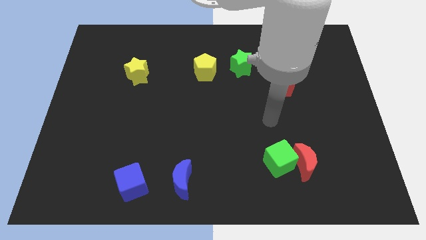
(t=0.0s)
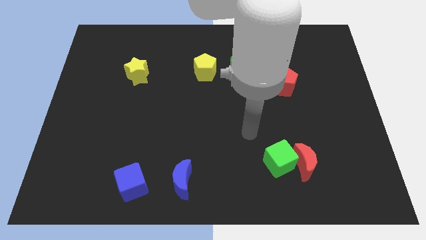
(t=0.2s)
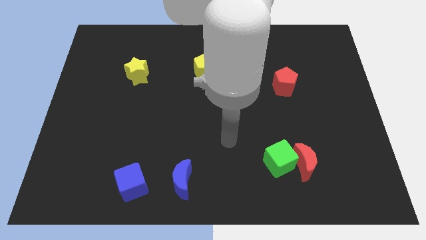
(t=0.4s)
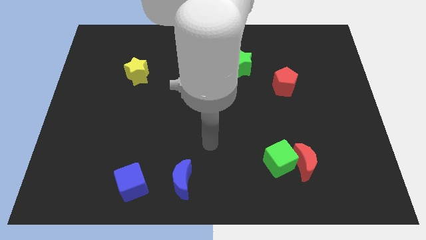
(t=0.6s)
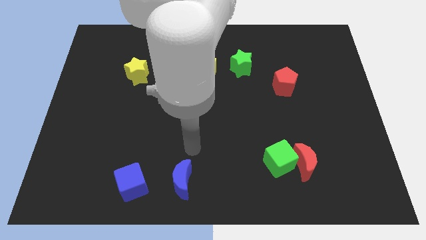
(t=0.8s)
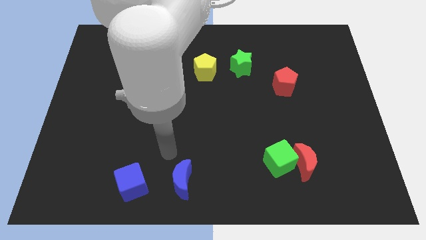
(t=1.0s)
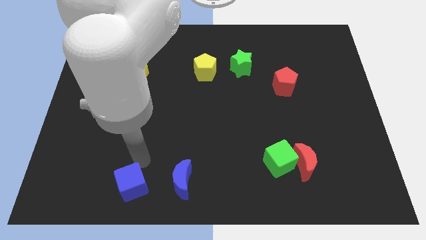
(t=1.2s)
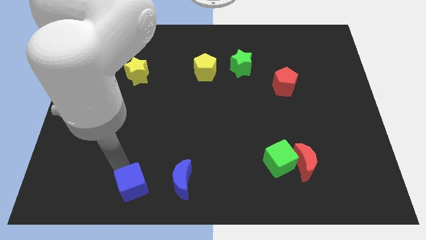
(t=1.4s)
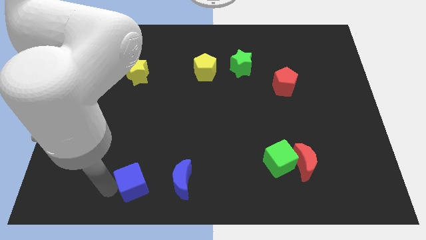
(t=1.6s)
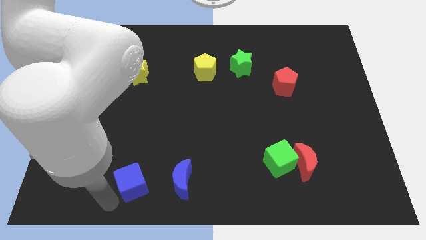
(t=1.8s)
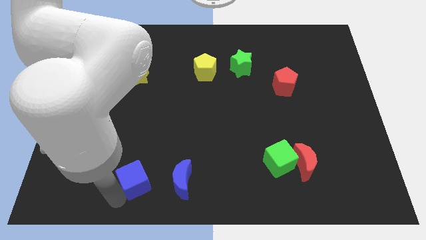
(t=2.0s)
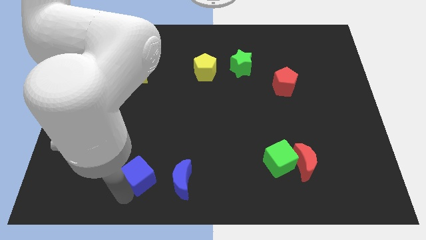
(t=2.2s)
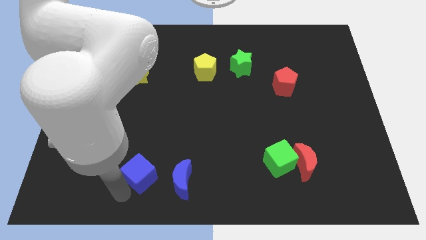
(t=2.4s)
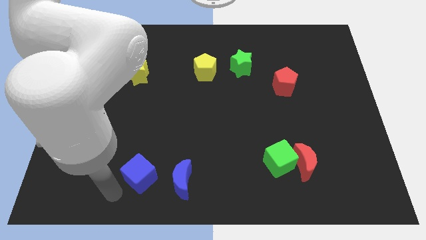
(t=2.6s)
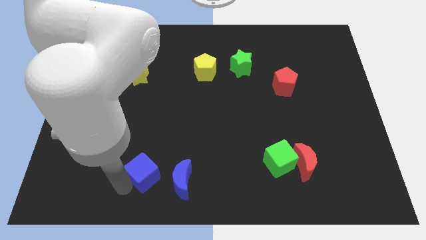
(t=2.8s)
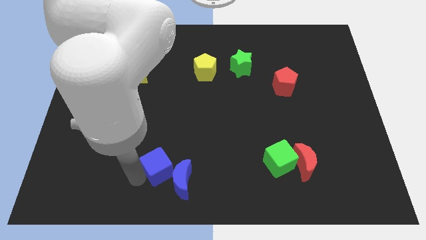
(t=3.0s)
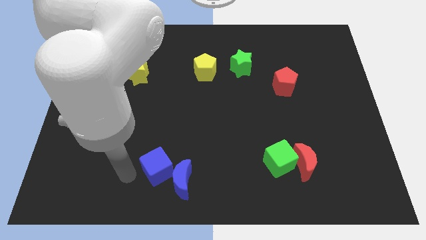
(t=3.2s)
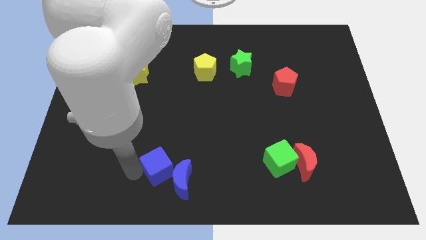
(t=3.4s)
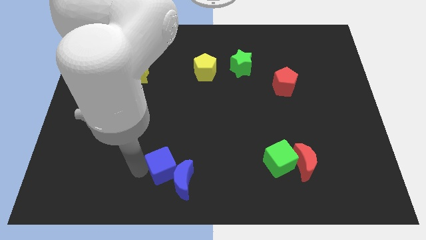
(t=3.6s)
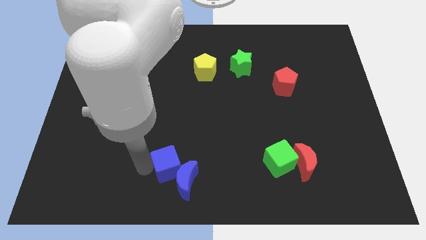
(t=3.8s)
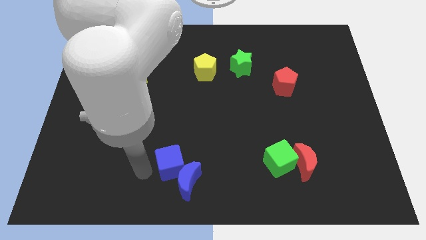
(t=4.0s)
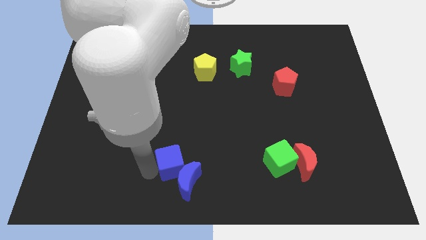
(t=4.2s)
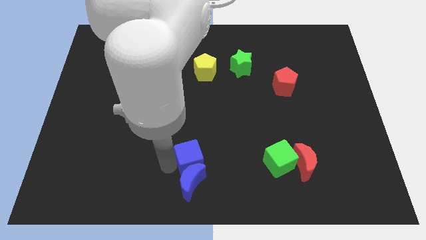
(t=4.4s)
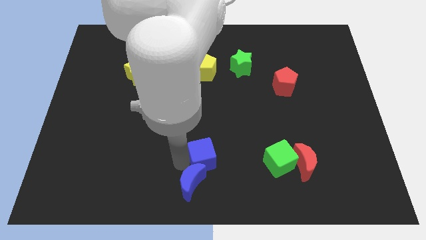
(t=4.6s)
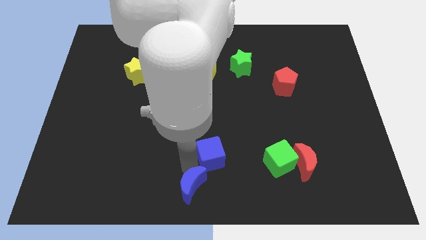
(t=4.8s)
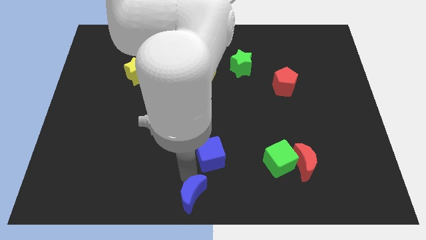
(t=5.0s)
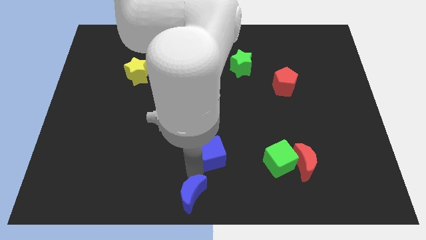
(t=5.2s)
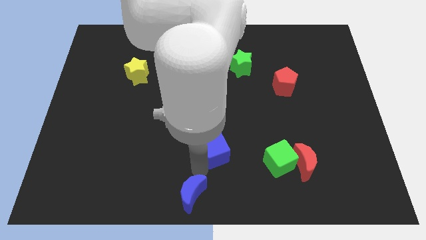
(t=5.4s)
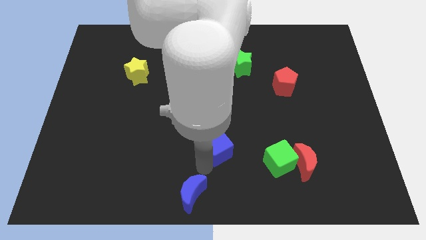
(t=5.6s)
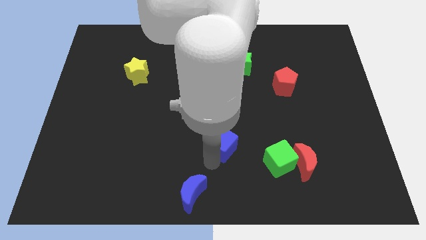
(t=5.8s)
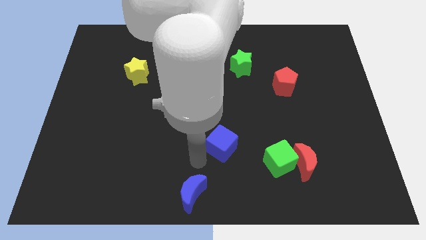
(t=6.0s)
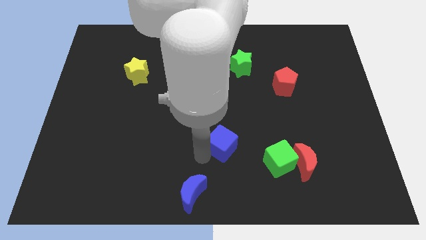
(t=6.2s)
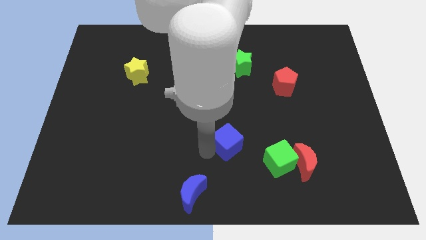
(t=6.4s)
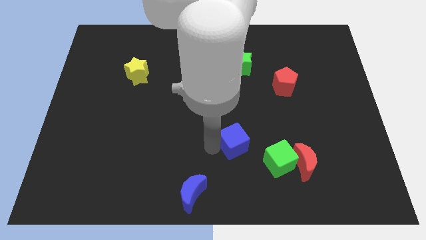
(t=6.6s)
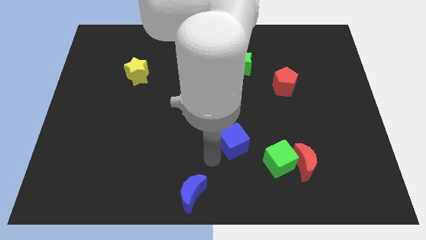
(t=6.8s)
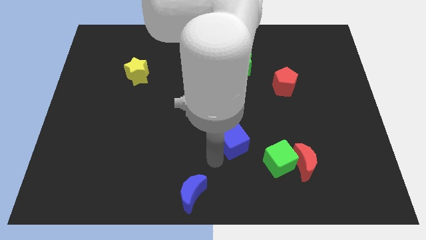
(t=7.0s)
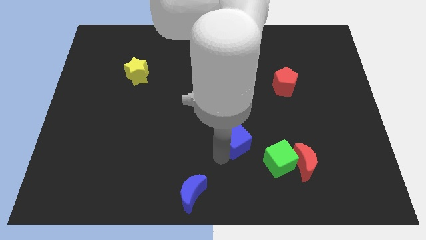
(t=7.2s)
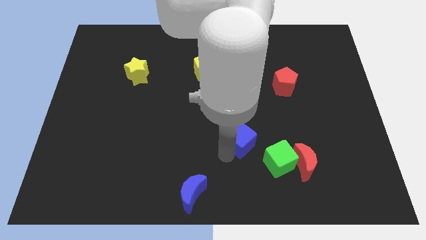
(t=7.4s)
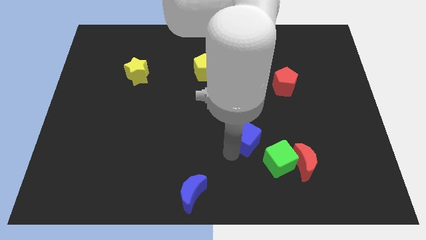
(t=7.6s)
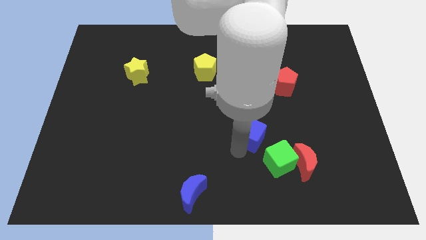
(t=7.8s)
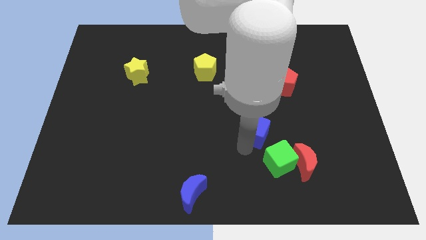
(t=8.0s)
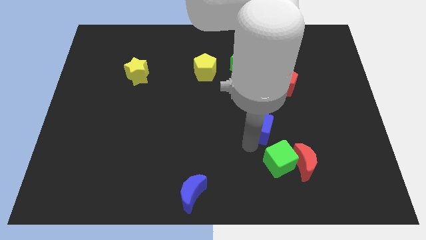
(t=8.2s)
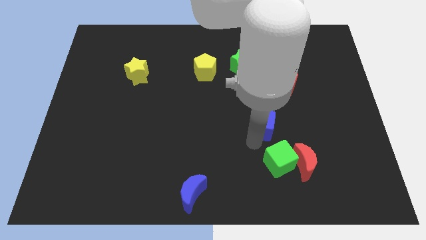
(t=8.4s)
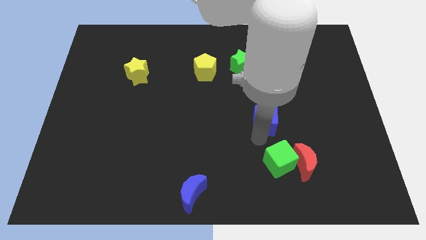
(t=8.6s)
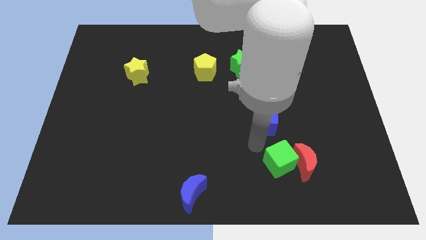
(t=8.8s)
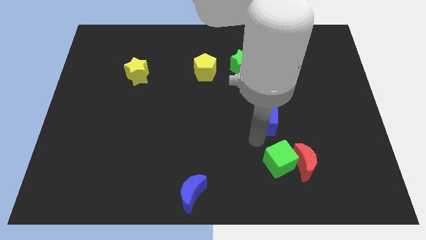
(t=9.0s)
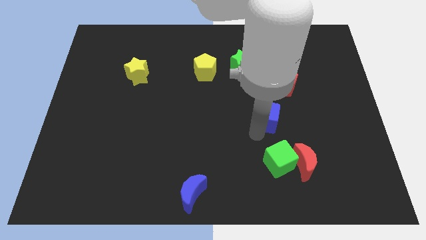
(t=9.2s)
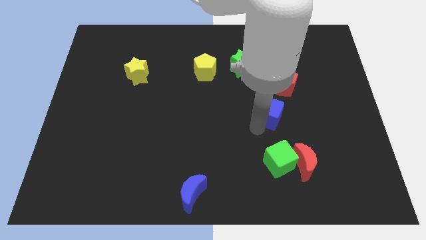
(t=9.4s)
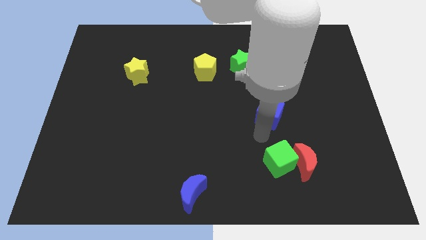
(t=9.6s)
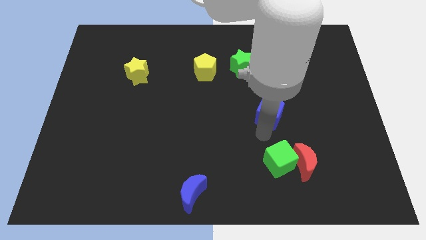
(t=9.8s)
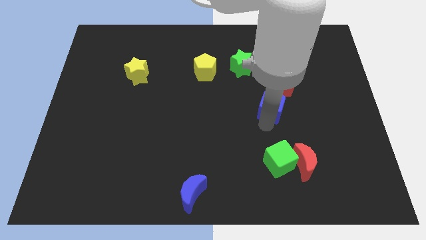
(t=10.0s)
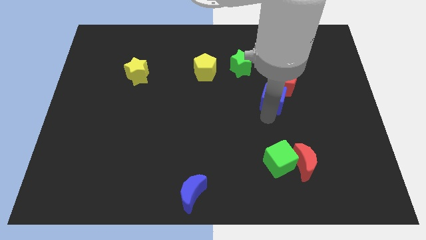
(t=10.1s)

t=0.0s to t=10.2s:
move the blue cube close to the red pentagon

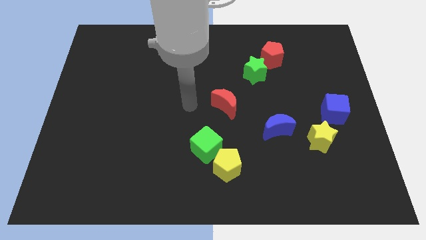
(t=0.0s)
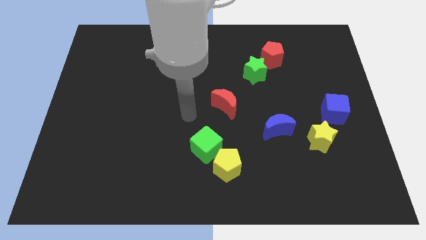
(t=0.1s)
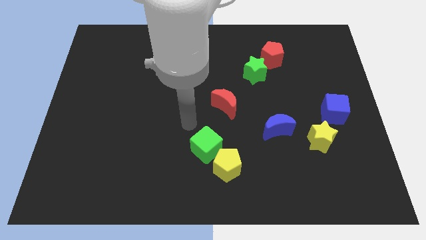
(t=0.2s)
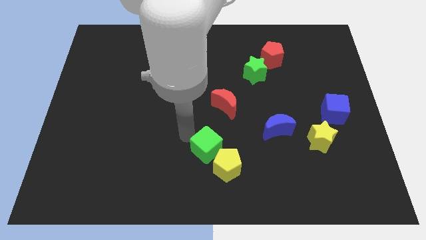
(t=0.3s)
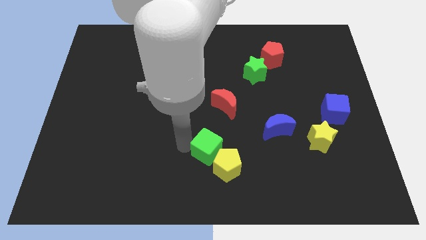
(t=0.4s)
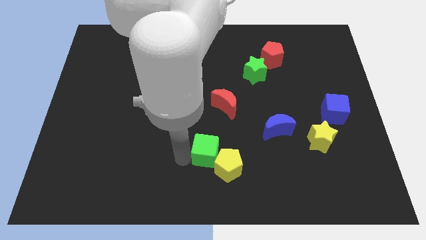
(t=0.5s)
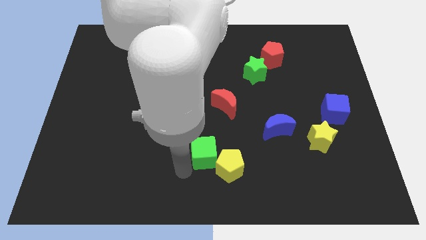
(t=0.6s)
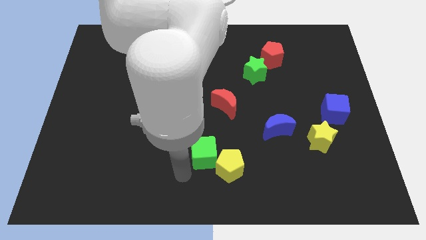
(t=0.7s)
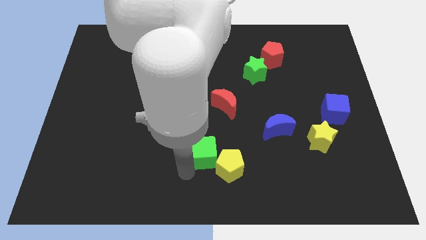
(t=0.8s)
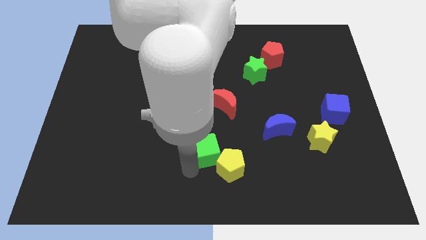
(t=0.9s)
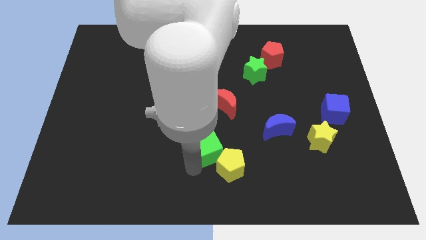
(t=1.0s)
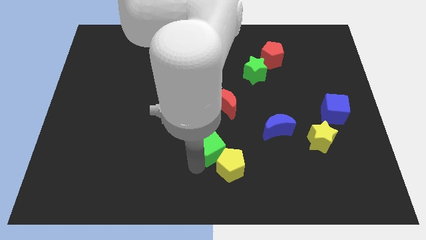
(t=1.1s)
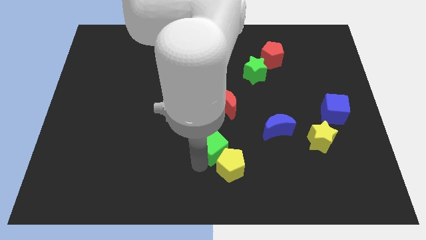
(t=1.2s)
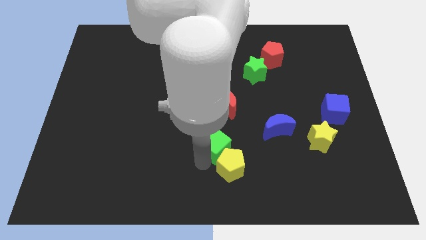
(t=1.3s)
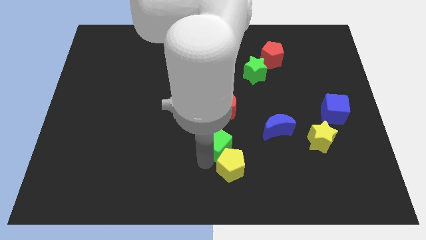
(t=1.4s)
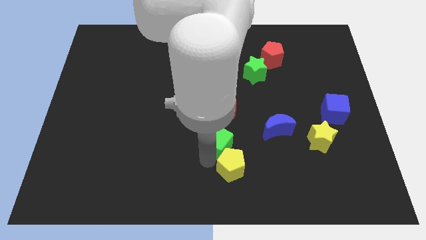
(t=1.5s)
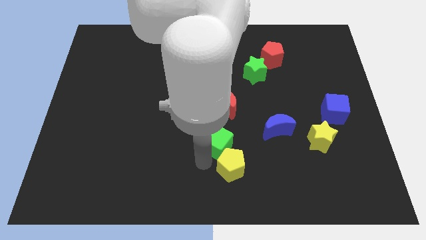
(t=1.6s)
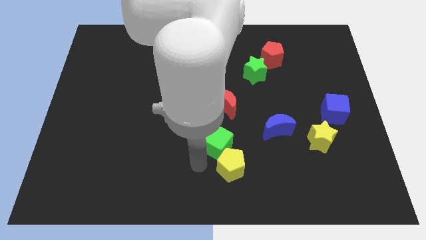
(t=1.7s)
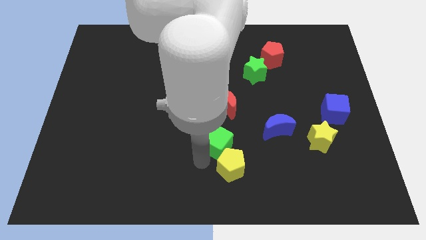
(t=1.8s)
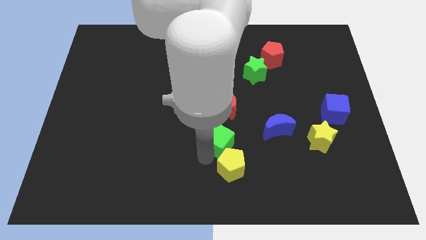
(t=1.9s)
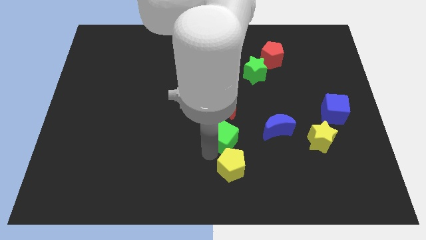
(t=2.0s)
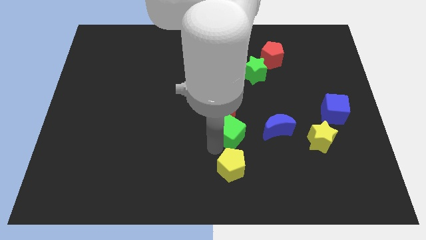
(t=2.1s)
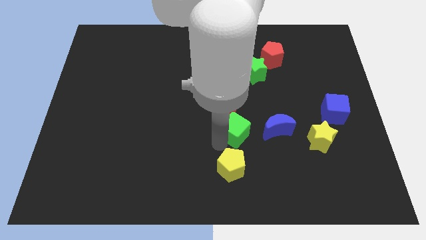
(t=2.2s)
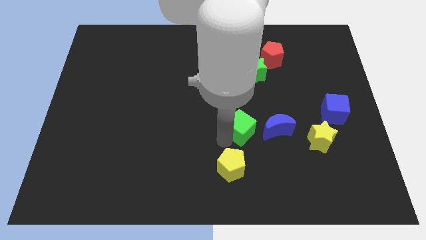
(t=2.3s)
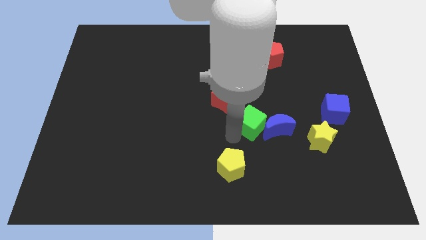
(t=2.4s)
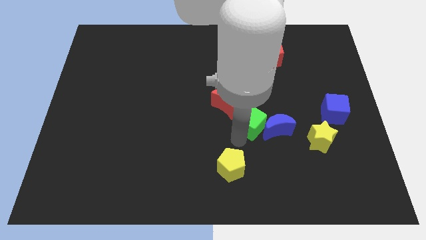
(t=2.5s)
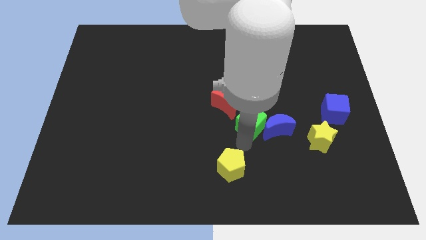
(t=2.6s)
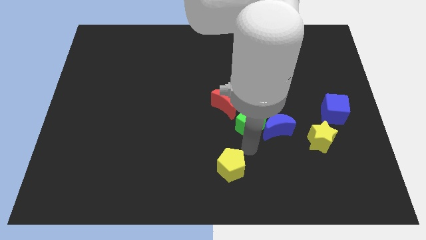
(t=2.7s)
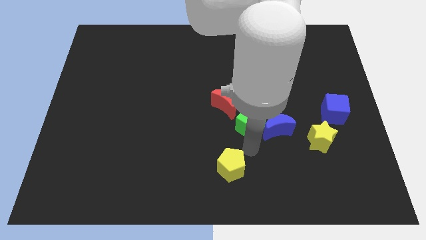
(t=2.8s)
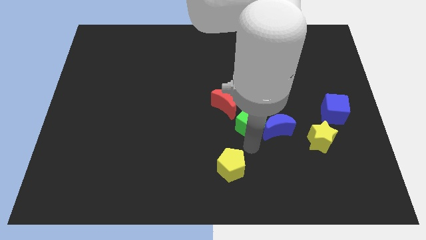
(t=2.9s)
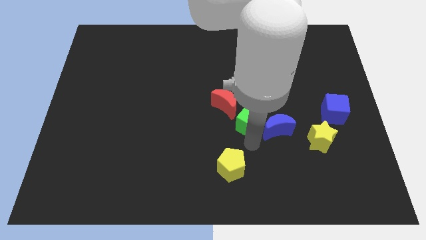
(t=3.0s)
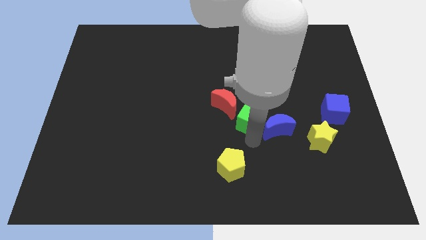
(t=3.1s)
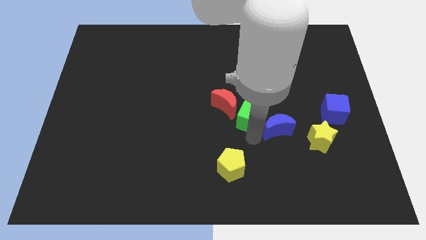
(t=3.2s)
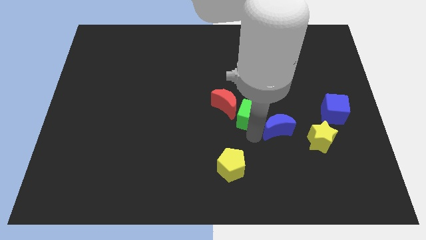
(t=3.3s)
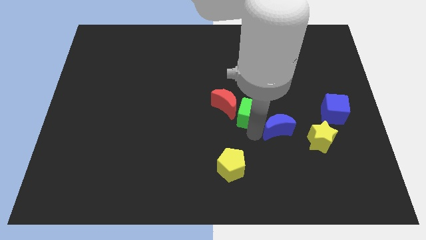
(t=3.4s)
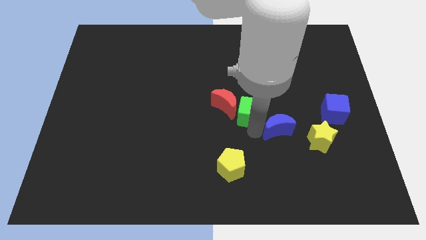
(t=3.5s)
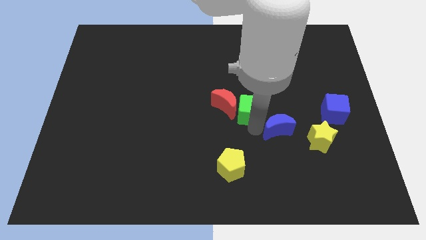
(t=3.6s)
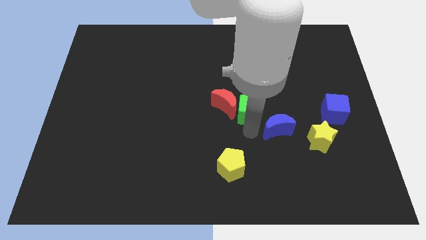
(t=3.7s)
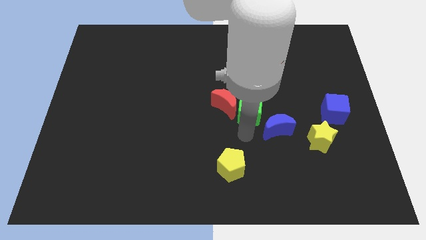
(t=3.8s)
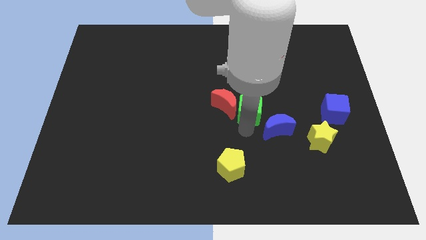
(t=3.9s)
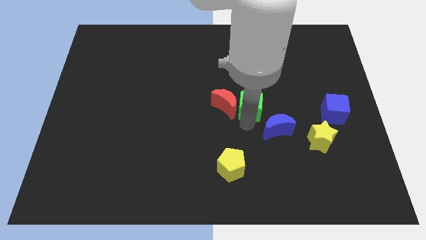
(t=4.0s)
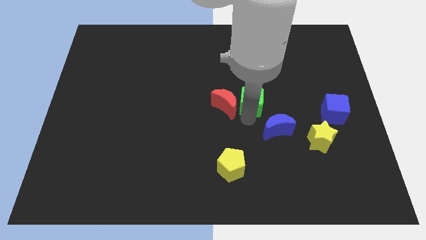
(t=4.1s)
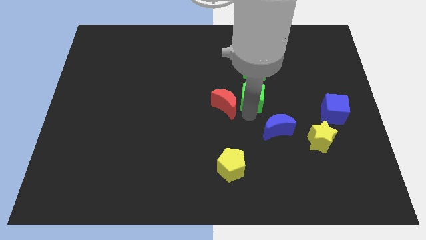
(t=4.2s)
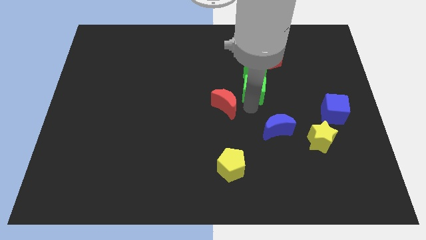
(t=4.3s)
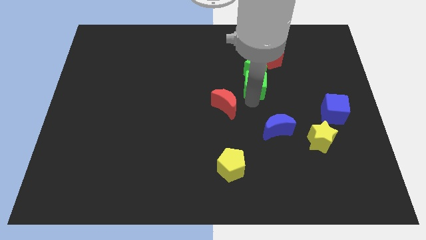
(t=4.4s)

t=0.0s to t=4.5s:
slide the green cube next to the green star
